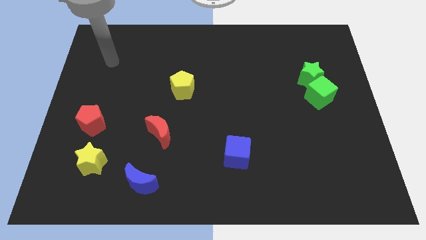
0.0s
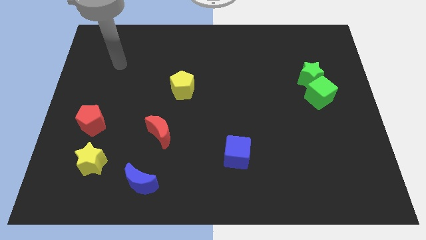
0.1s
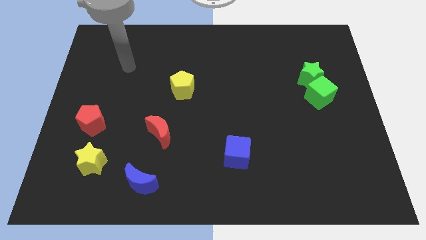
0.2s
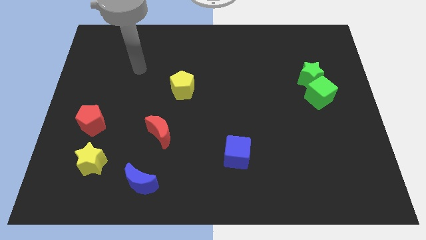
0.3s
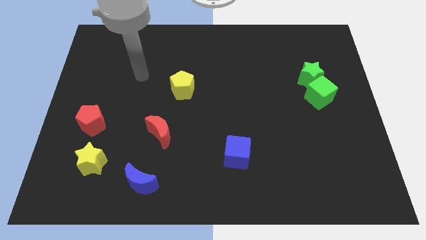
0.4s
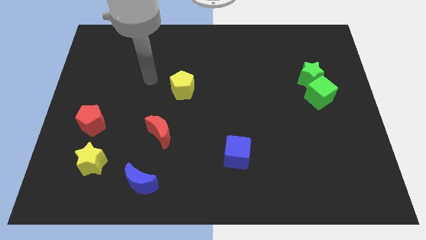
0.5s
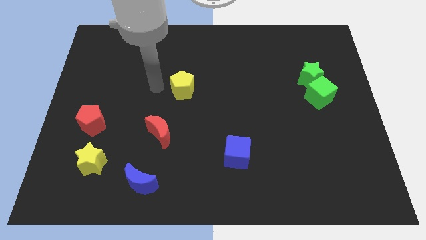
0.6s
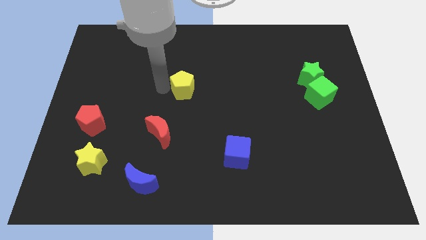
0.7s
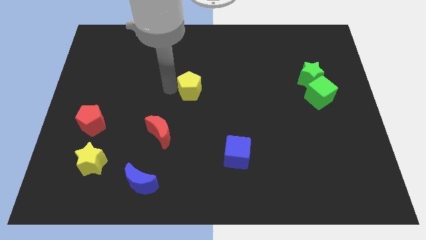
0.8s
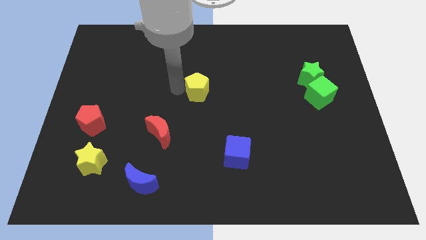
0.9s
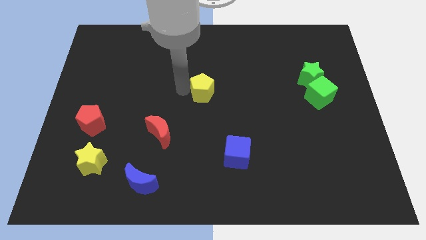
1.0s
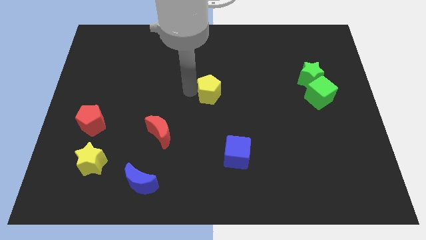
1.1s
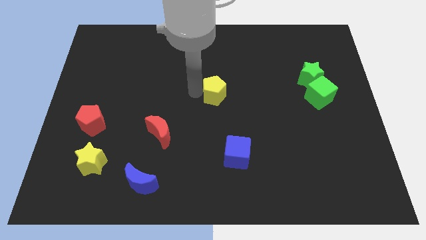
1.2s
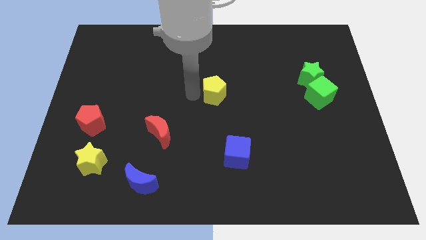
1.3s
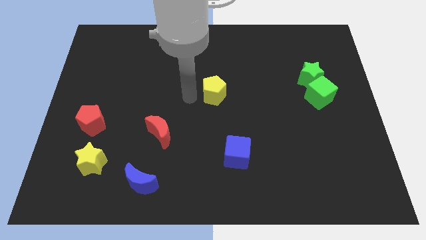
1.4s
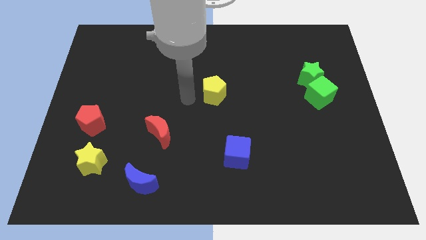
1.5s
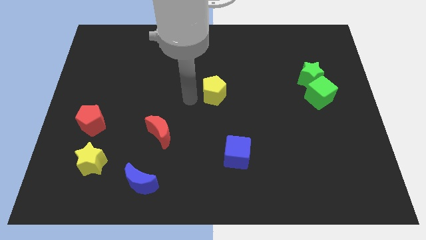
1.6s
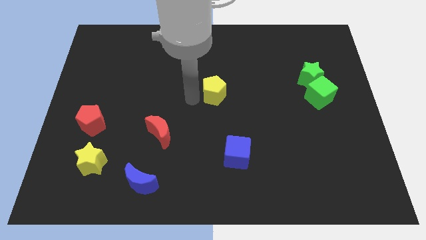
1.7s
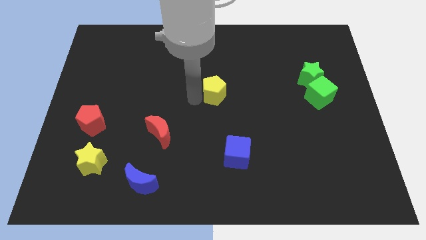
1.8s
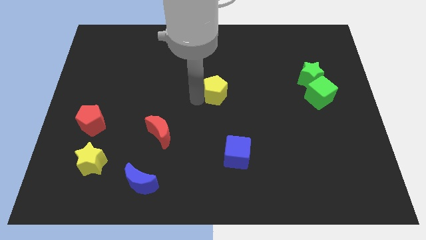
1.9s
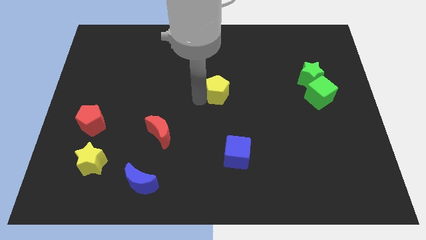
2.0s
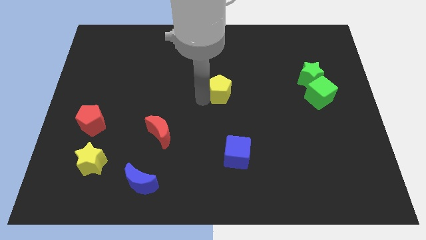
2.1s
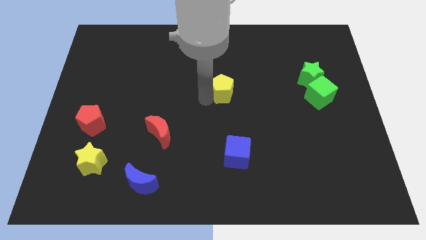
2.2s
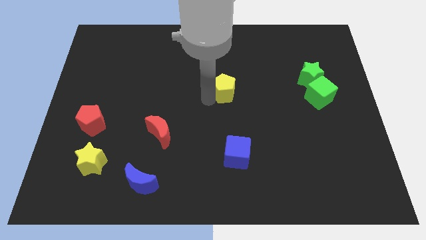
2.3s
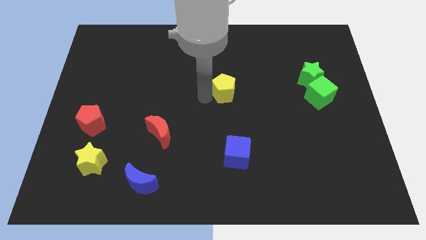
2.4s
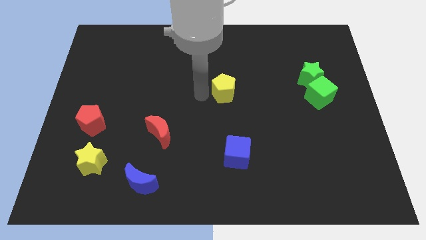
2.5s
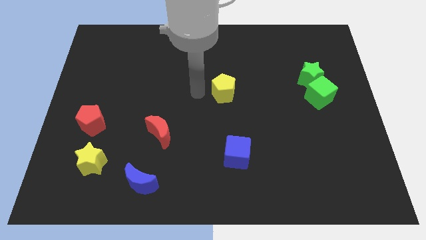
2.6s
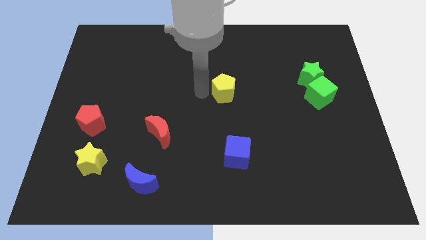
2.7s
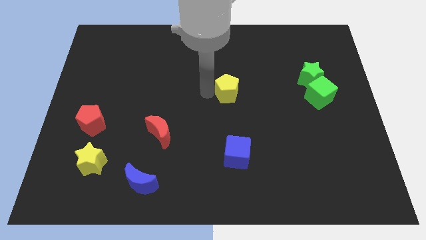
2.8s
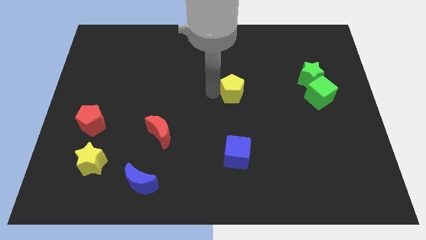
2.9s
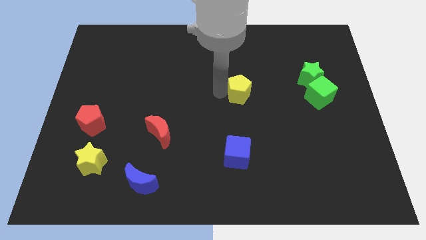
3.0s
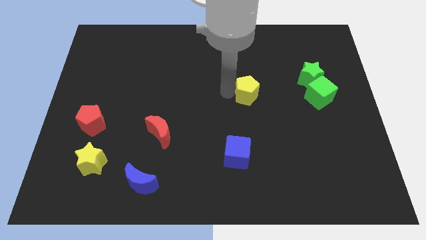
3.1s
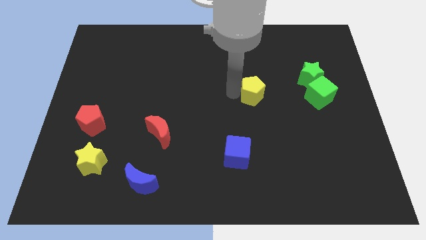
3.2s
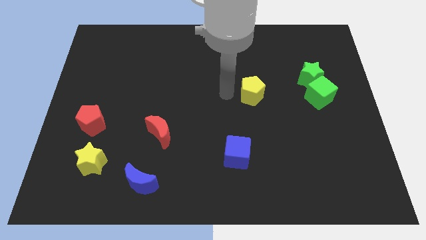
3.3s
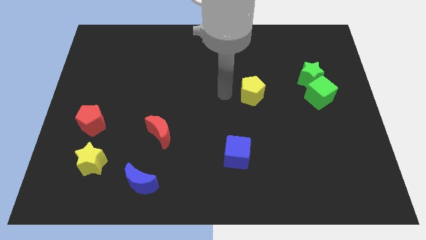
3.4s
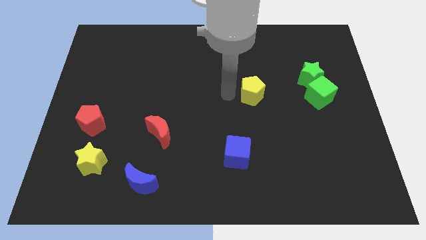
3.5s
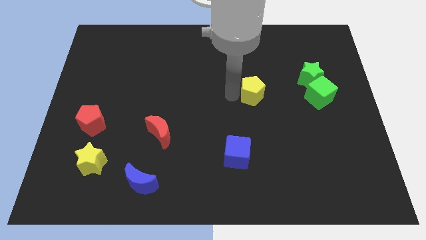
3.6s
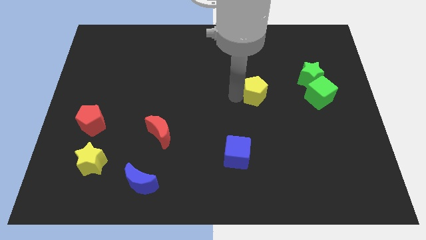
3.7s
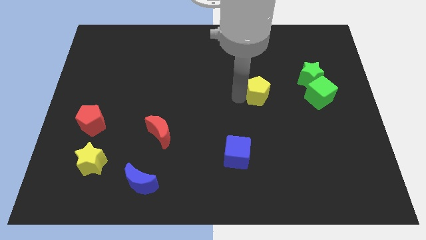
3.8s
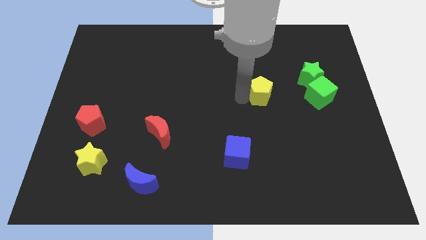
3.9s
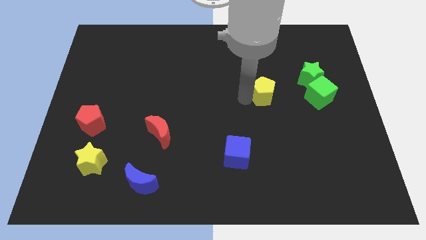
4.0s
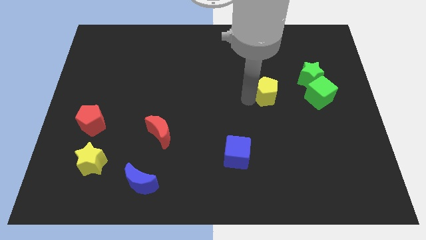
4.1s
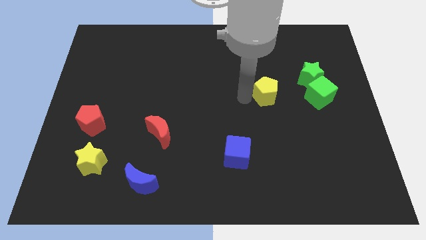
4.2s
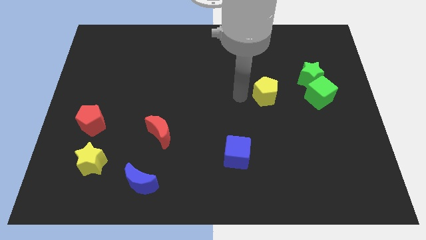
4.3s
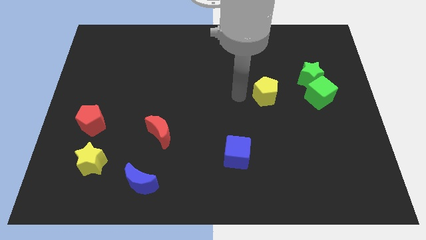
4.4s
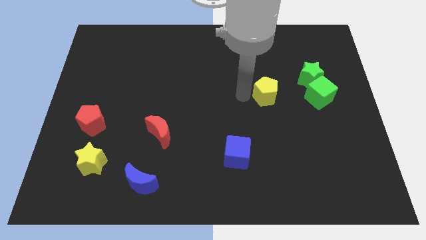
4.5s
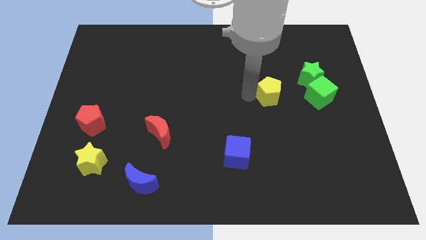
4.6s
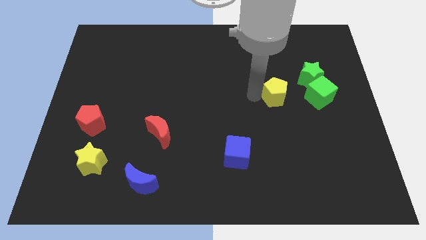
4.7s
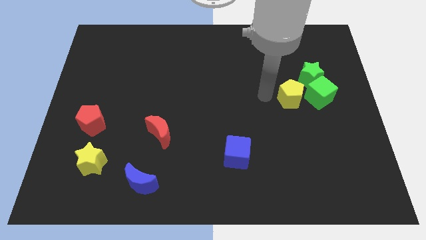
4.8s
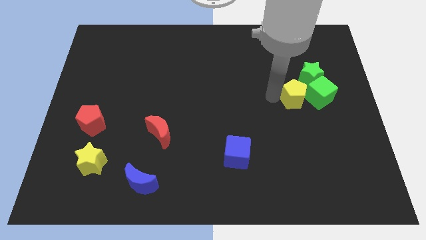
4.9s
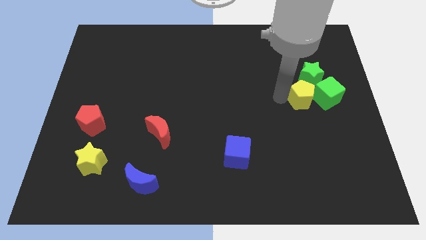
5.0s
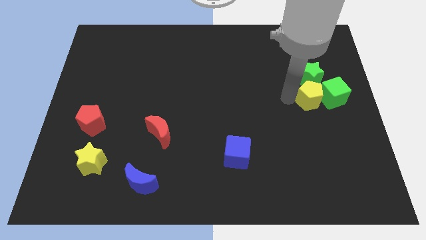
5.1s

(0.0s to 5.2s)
push the yellow pentagon towards the green cube

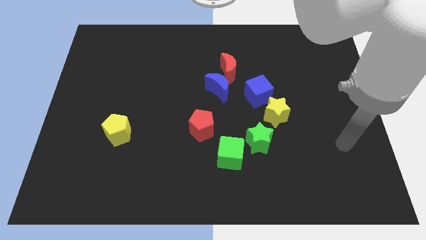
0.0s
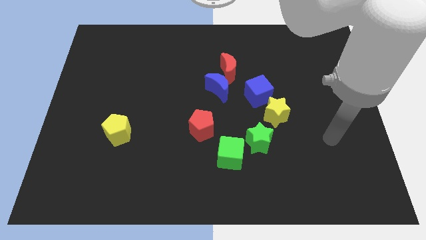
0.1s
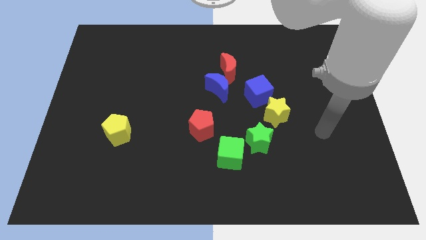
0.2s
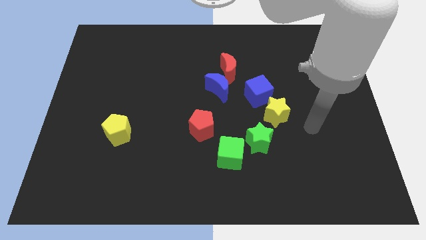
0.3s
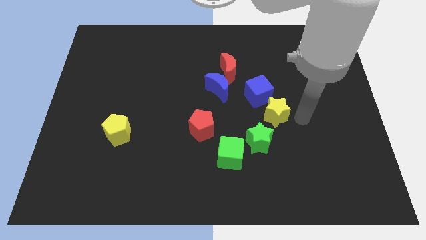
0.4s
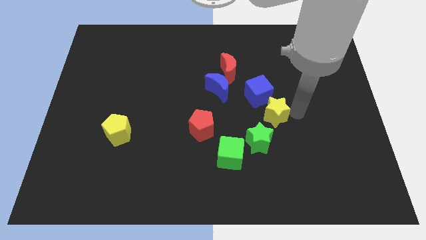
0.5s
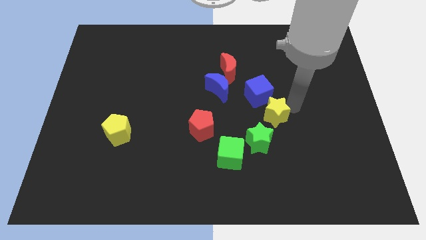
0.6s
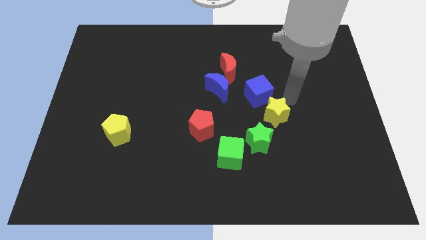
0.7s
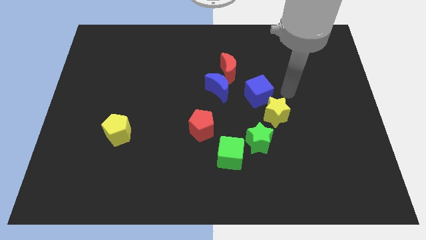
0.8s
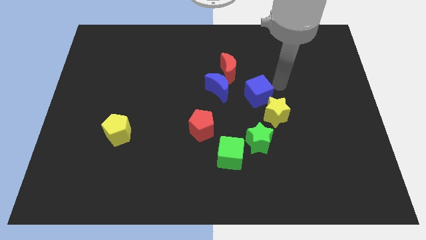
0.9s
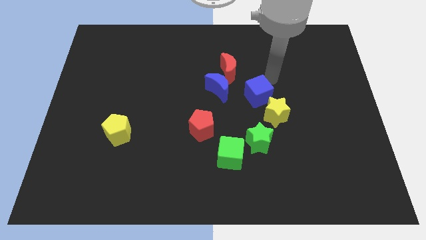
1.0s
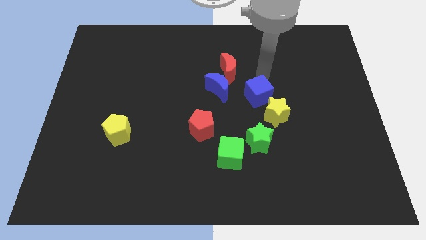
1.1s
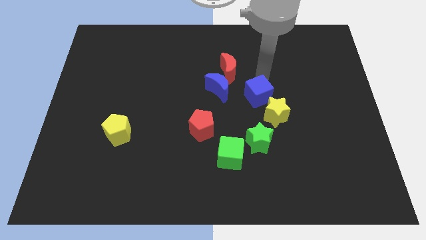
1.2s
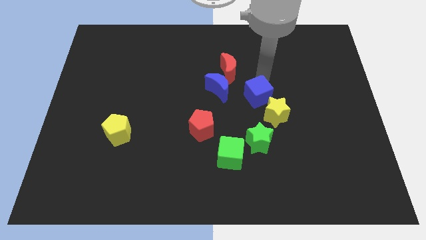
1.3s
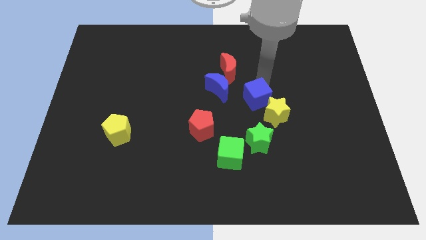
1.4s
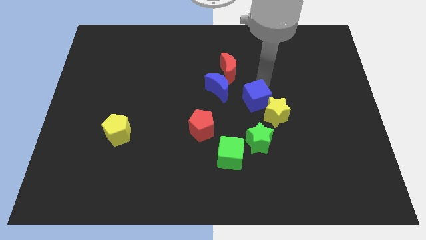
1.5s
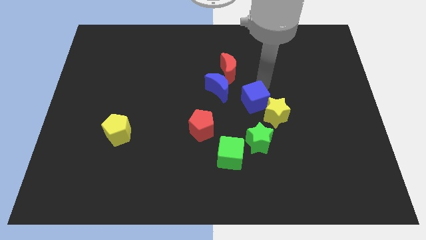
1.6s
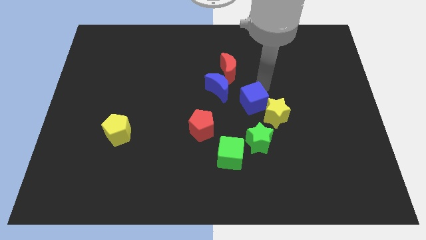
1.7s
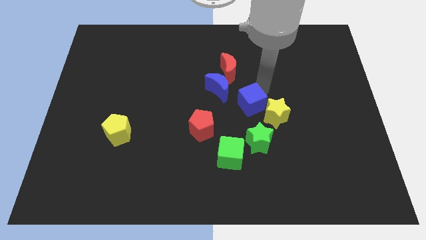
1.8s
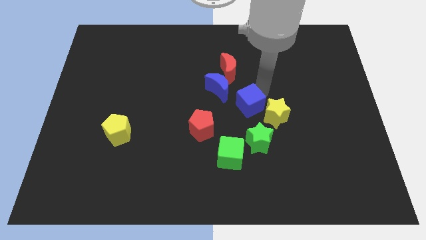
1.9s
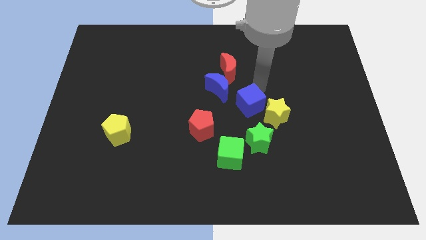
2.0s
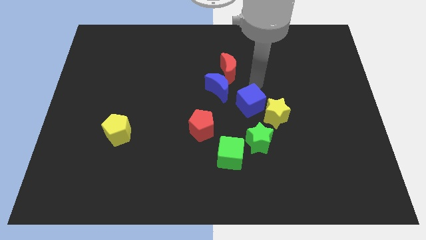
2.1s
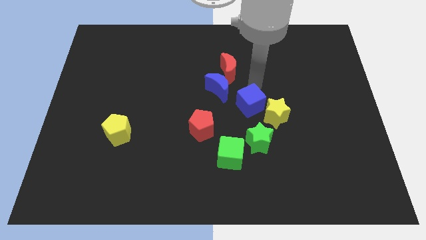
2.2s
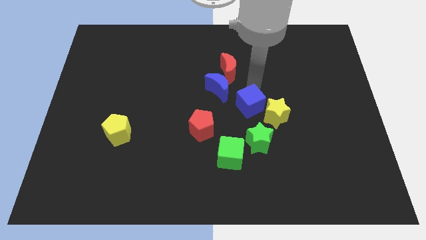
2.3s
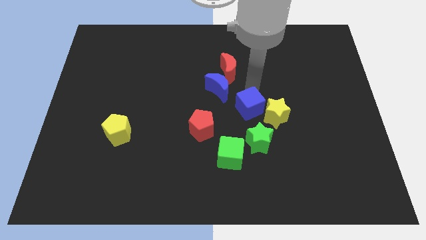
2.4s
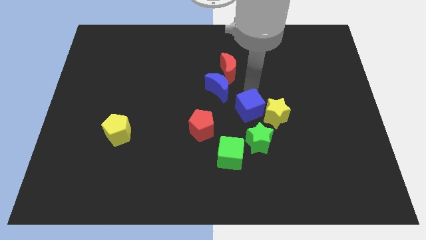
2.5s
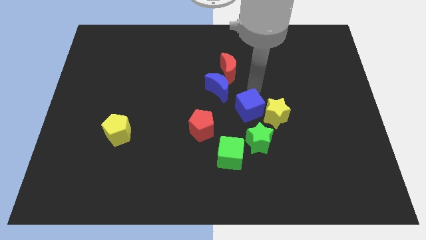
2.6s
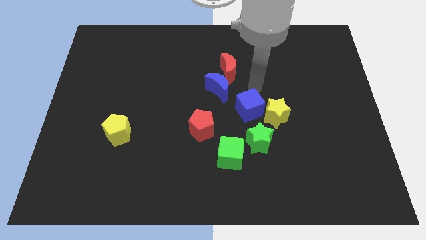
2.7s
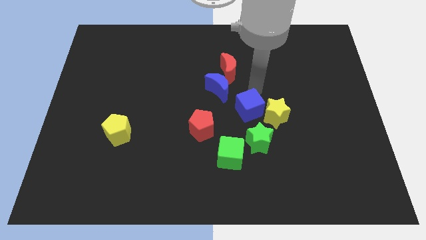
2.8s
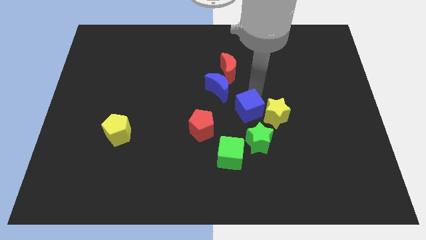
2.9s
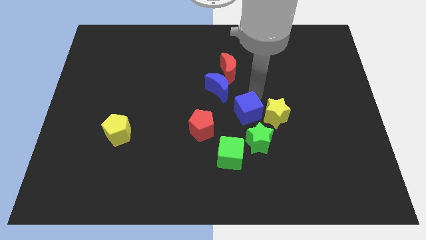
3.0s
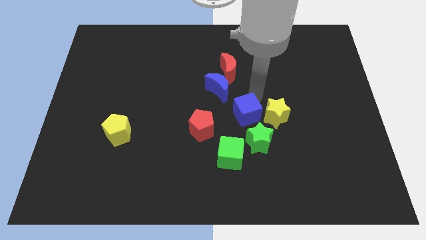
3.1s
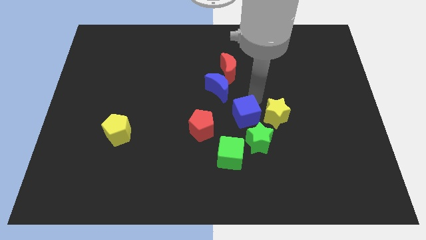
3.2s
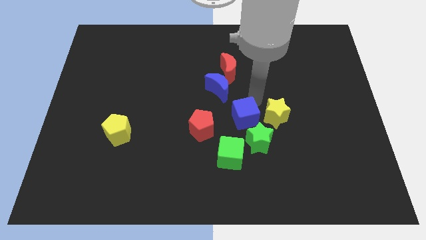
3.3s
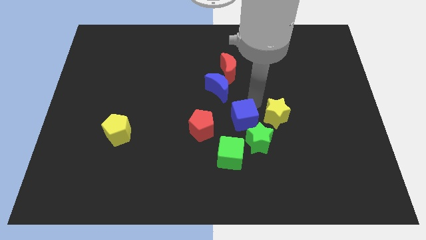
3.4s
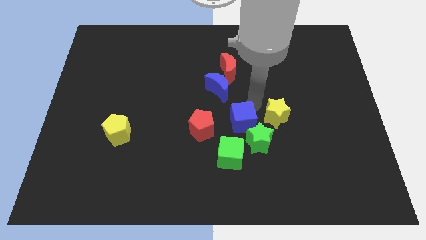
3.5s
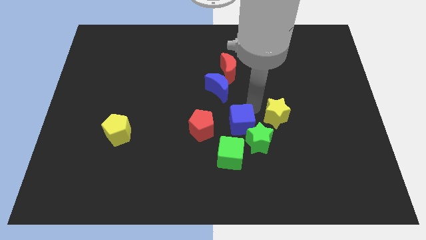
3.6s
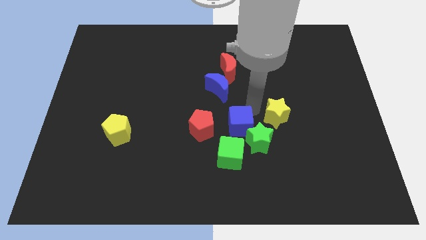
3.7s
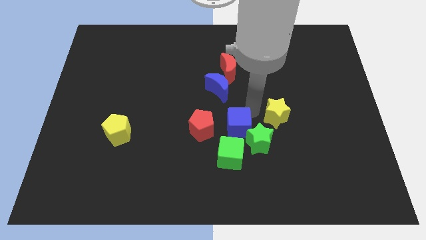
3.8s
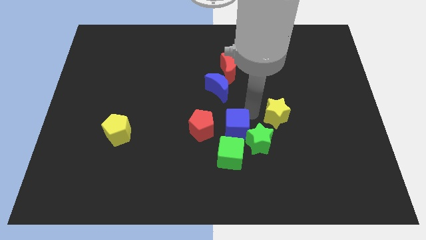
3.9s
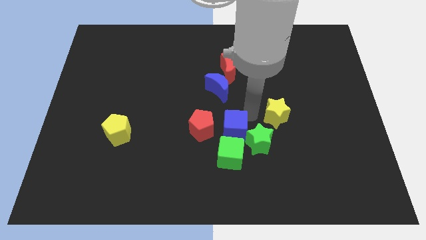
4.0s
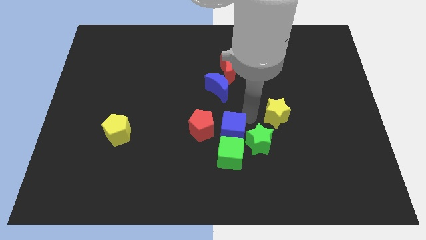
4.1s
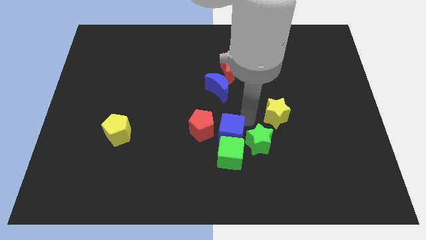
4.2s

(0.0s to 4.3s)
put the blue cube next to the green cube
